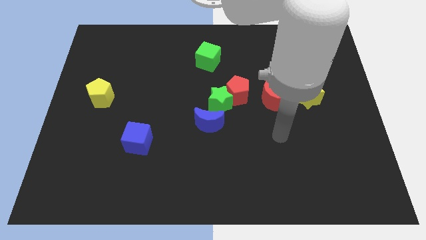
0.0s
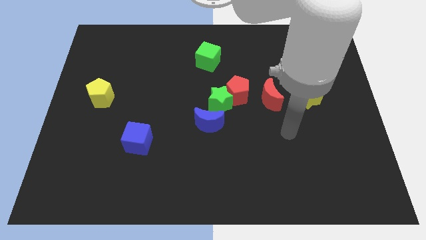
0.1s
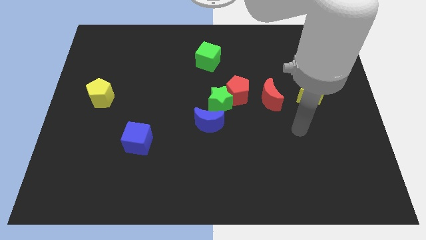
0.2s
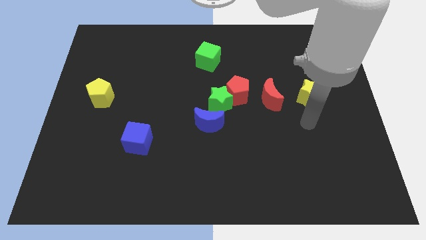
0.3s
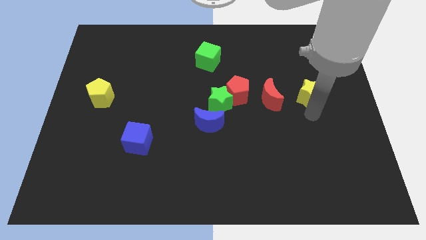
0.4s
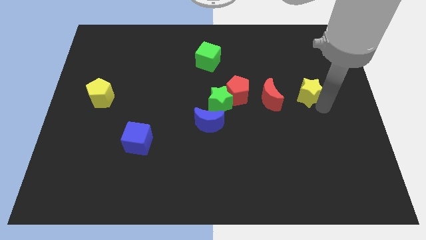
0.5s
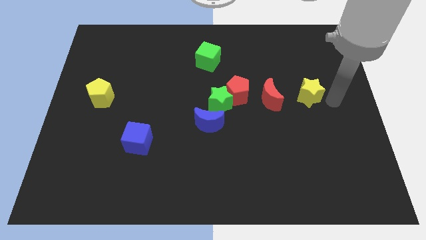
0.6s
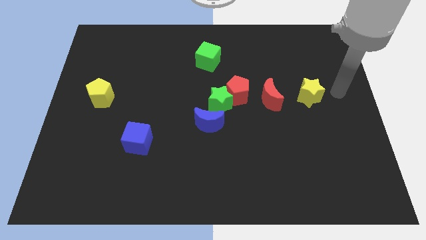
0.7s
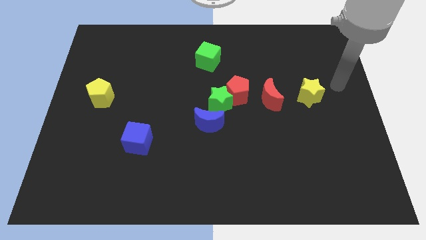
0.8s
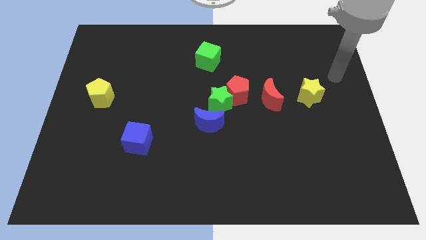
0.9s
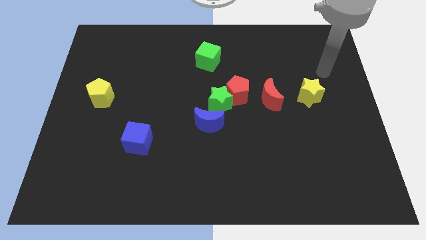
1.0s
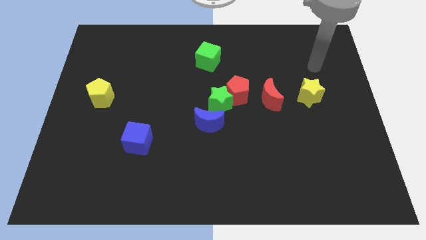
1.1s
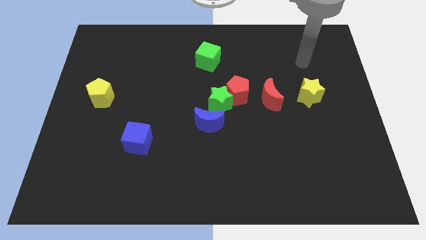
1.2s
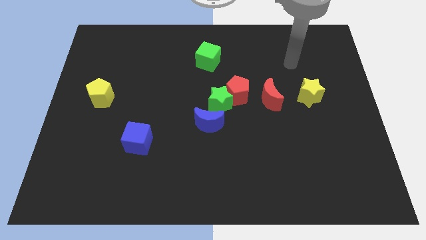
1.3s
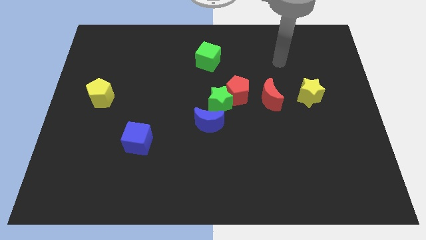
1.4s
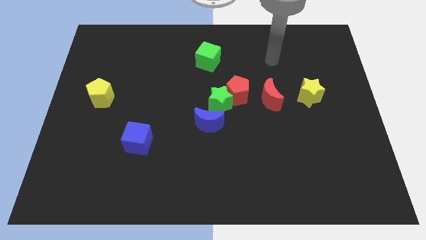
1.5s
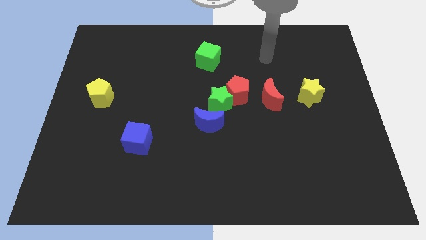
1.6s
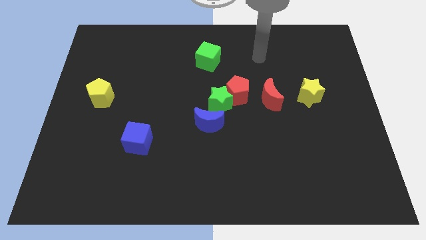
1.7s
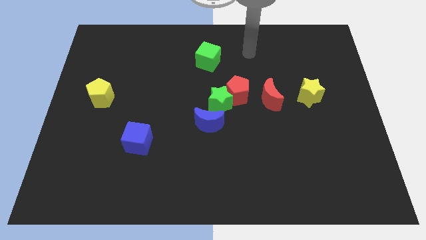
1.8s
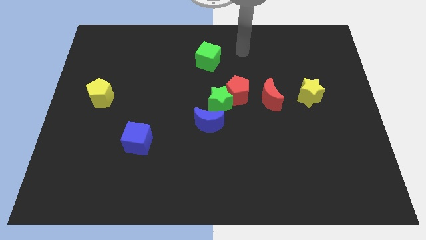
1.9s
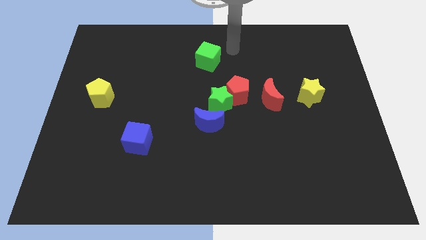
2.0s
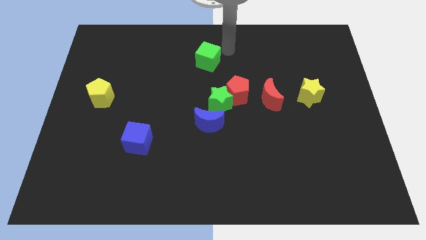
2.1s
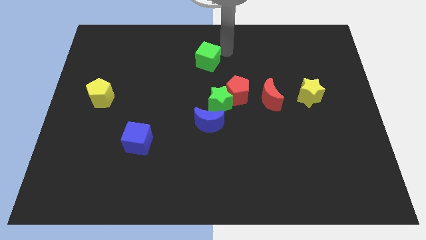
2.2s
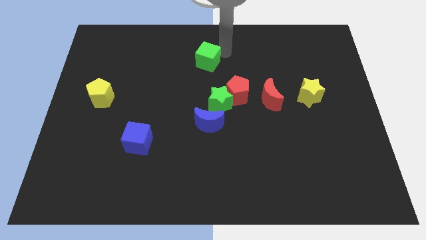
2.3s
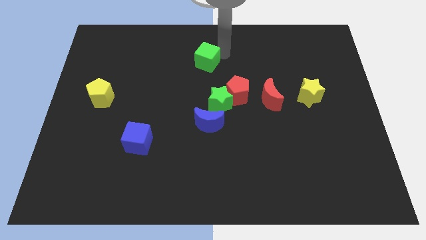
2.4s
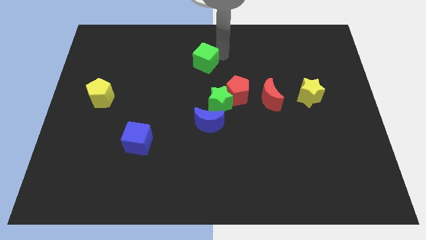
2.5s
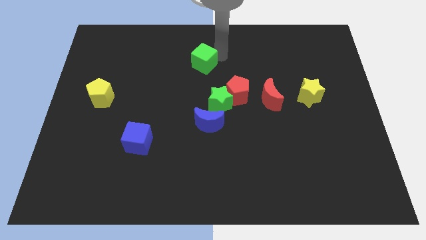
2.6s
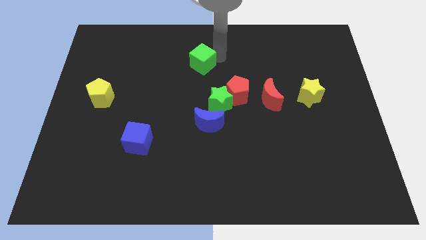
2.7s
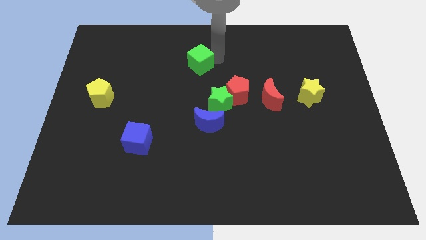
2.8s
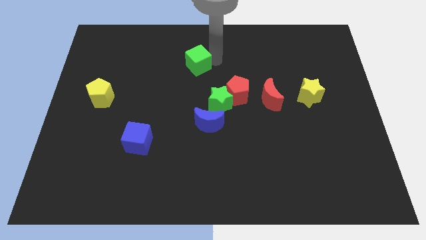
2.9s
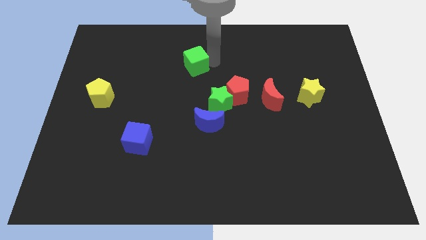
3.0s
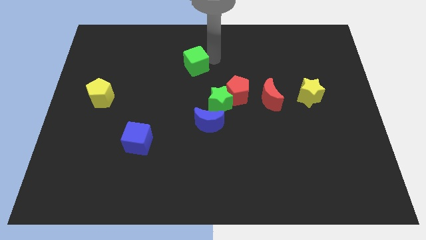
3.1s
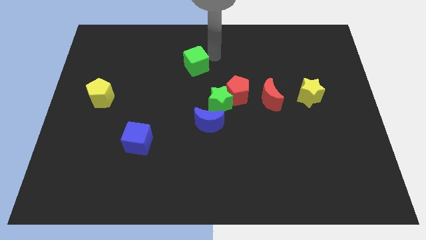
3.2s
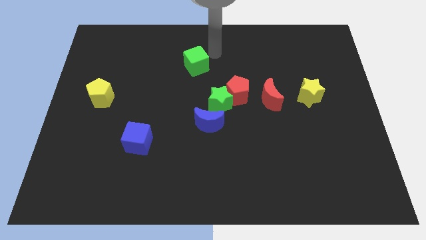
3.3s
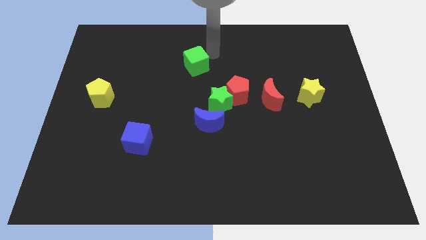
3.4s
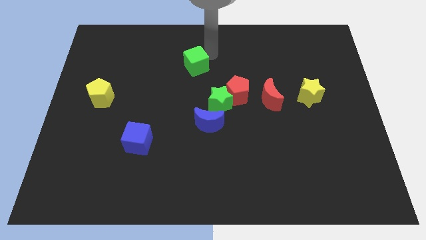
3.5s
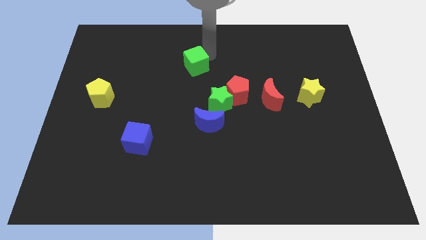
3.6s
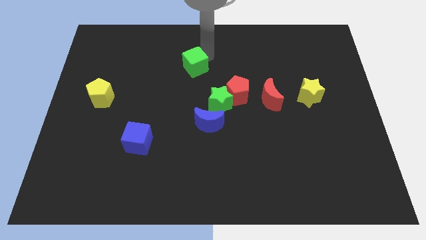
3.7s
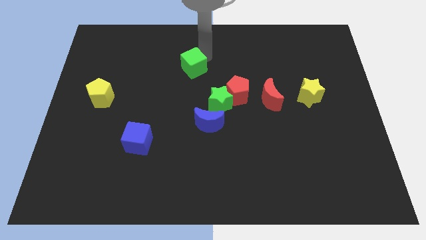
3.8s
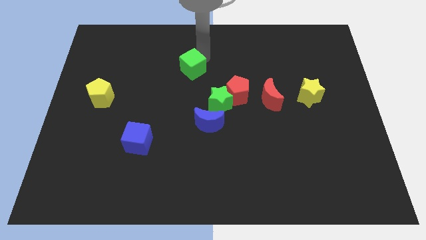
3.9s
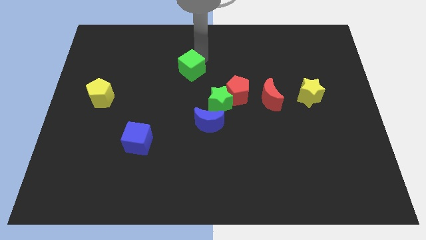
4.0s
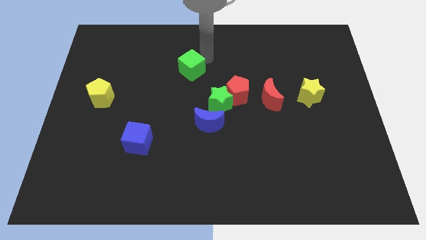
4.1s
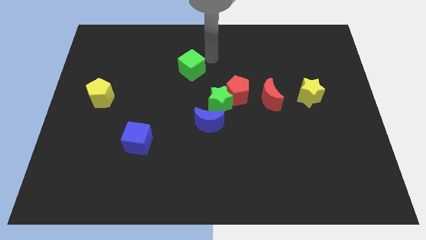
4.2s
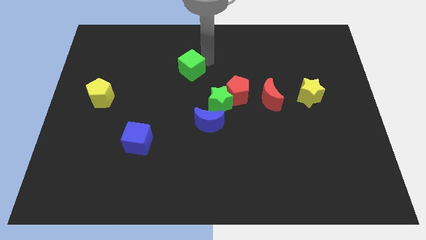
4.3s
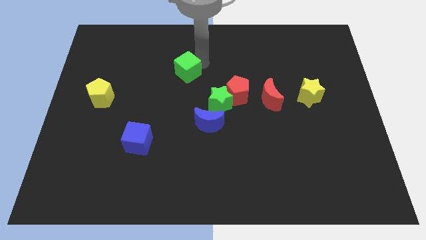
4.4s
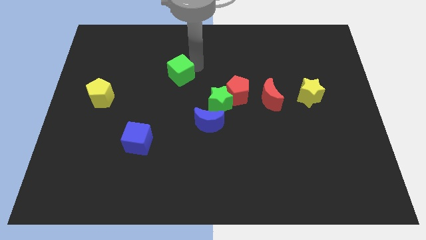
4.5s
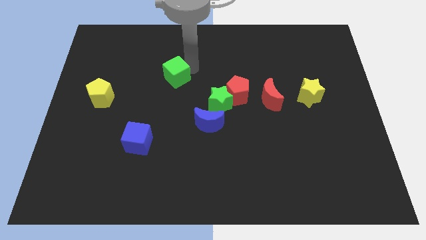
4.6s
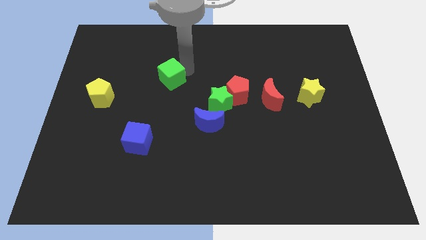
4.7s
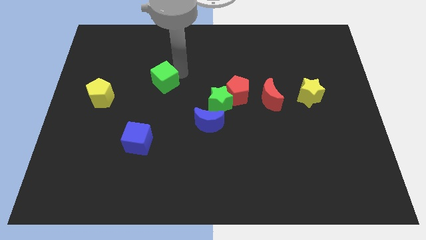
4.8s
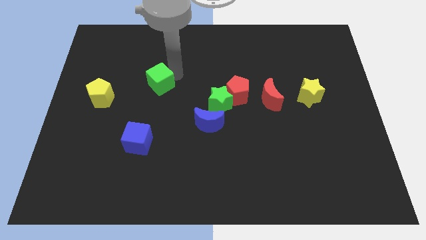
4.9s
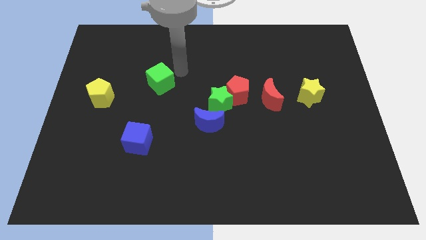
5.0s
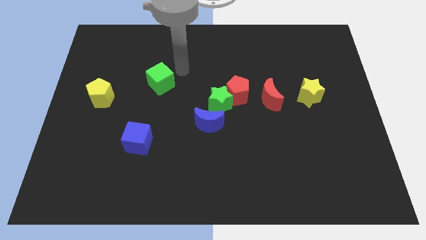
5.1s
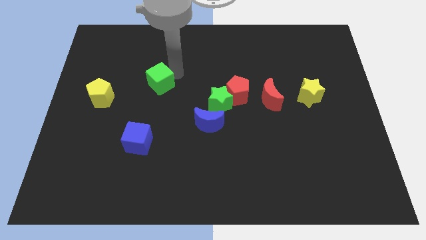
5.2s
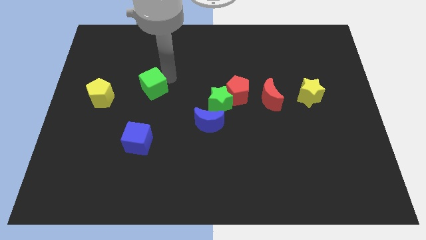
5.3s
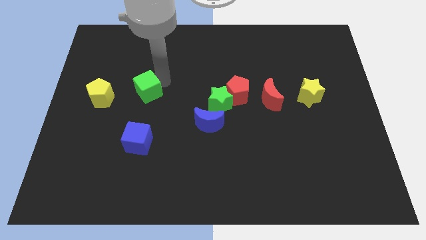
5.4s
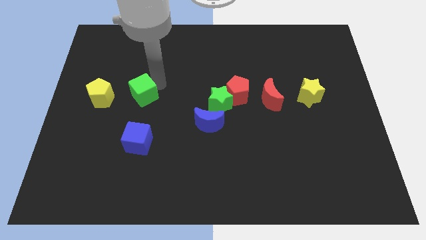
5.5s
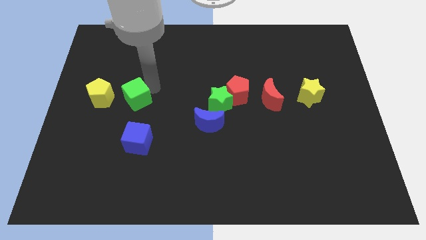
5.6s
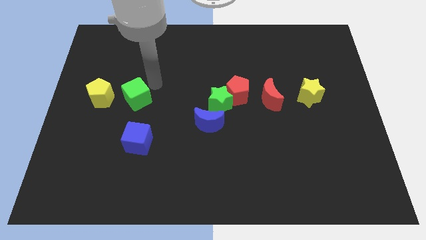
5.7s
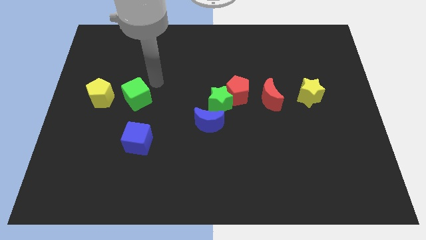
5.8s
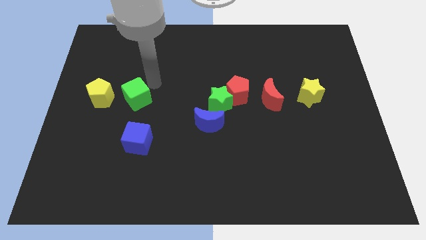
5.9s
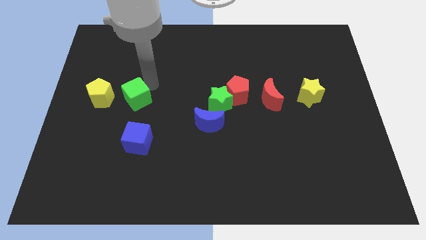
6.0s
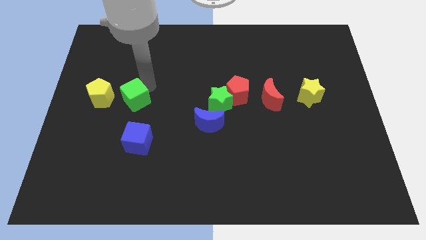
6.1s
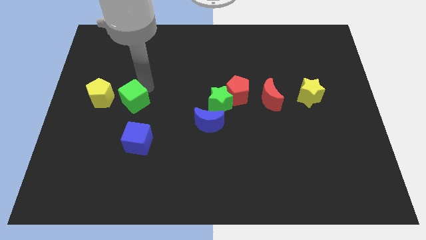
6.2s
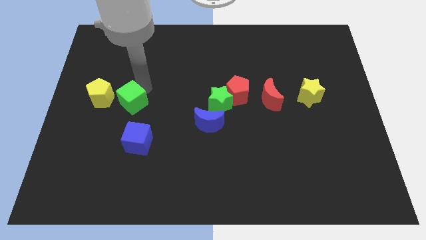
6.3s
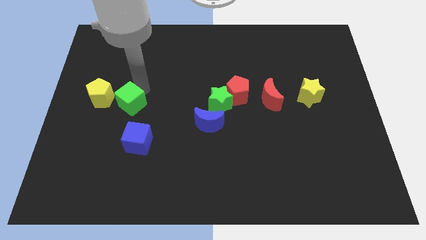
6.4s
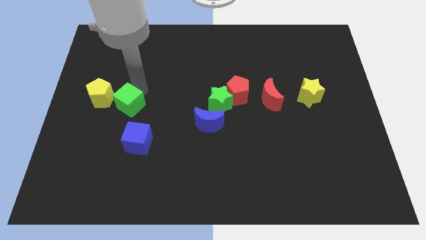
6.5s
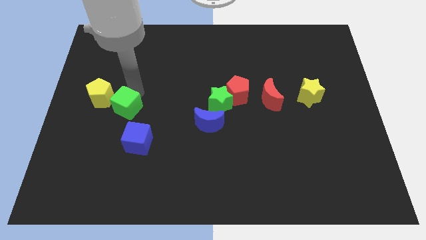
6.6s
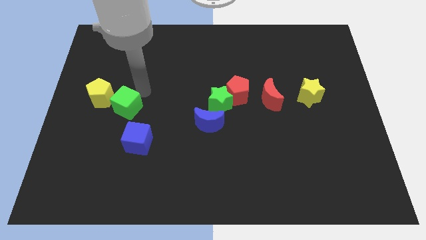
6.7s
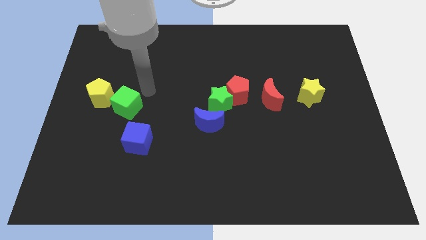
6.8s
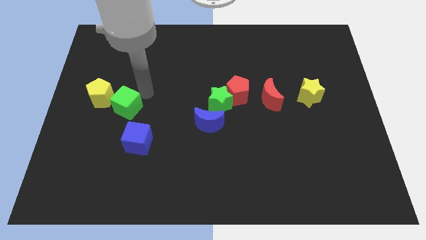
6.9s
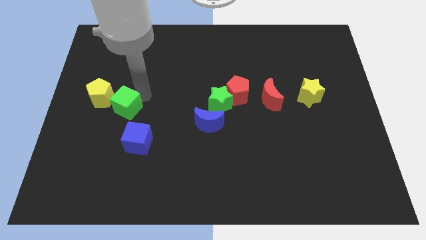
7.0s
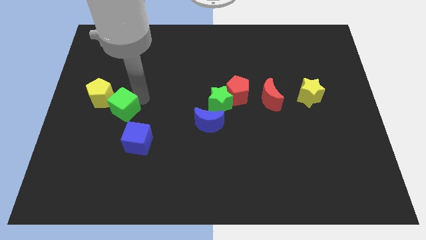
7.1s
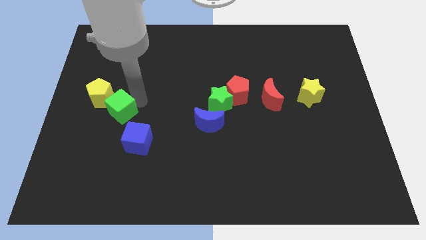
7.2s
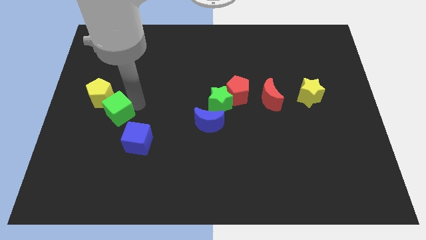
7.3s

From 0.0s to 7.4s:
push the green cube below the yellow pentagon
